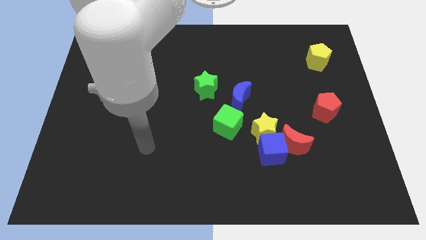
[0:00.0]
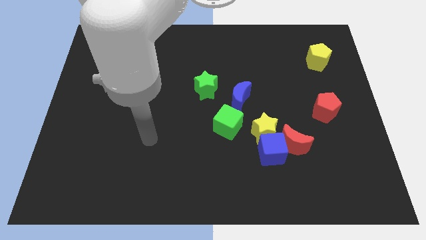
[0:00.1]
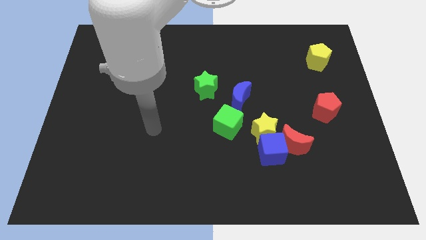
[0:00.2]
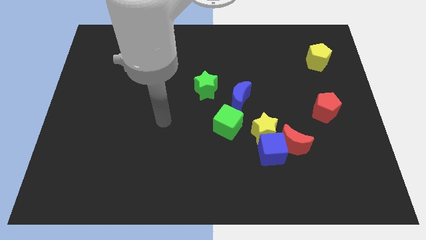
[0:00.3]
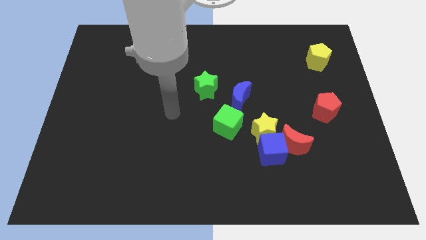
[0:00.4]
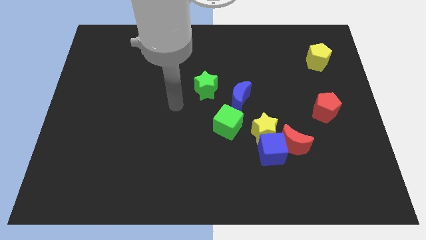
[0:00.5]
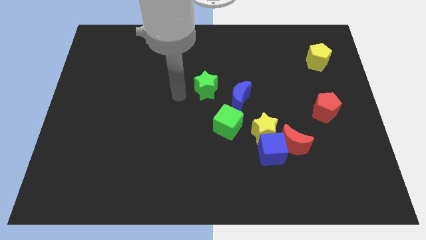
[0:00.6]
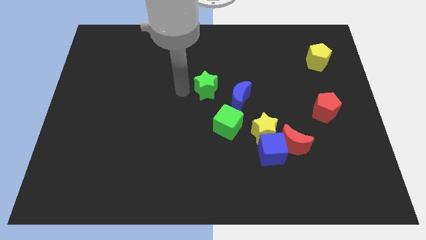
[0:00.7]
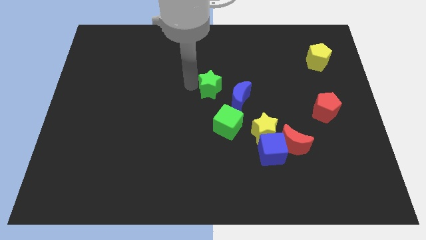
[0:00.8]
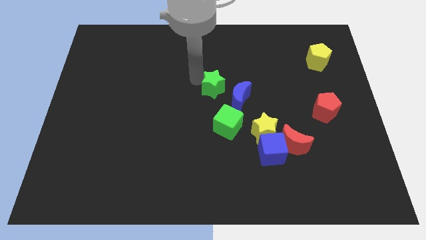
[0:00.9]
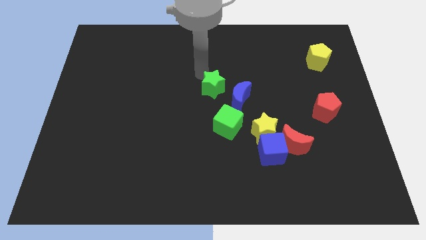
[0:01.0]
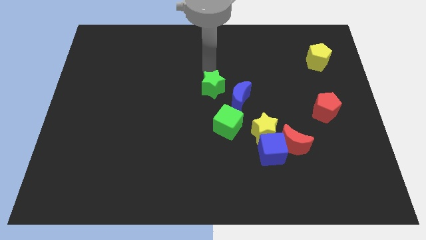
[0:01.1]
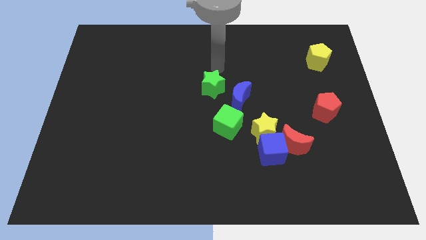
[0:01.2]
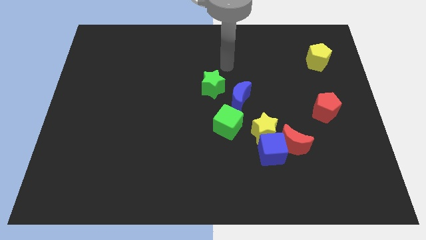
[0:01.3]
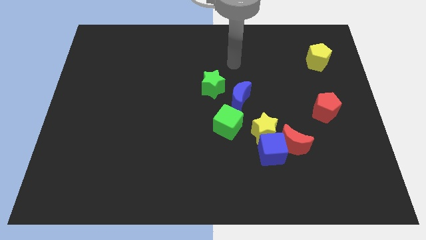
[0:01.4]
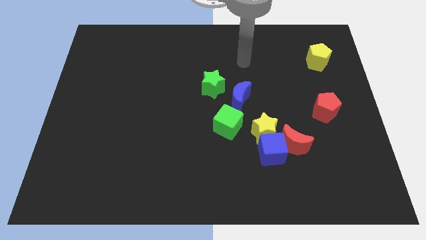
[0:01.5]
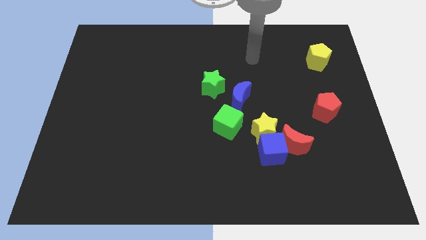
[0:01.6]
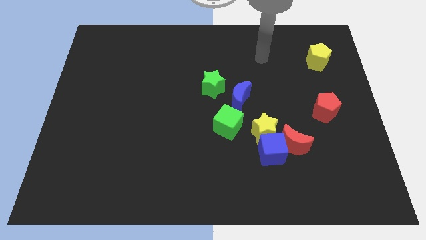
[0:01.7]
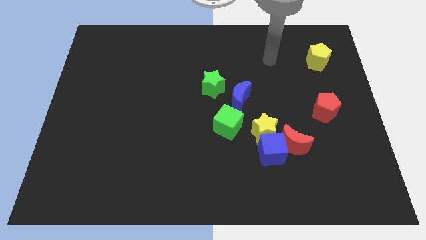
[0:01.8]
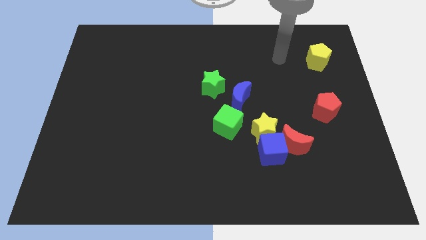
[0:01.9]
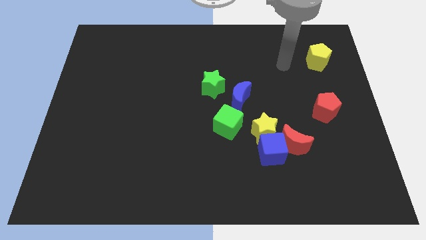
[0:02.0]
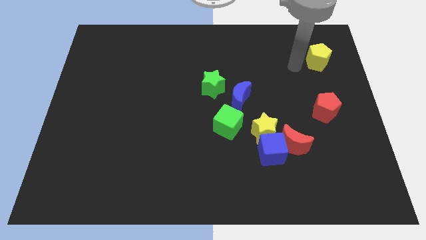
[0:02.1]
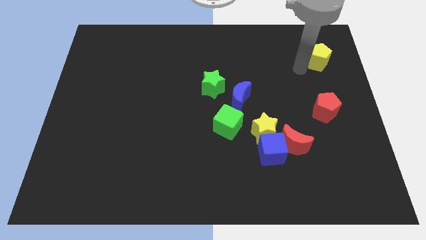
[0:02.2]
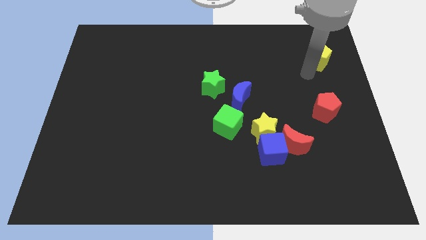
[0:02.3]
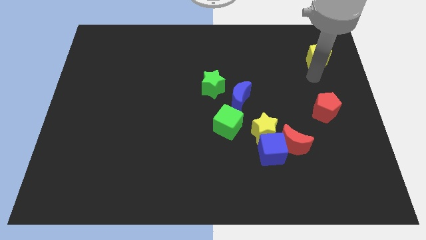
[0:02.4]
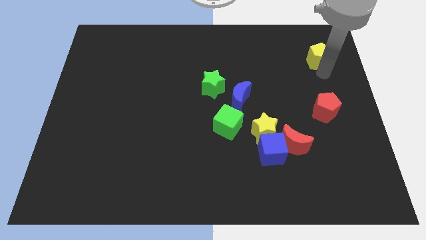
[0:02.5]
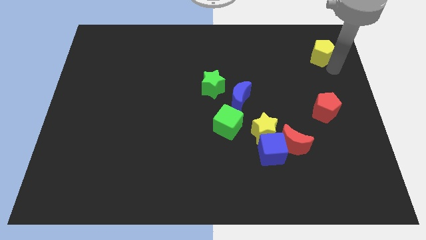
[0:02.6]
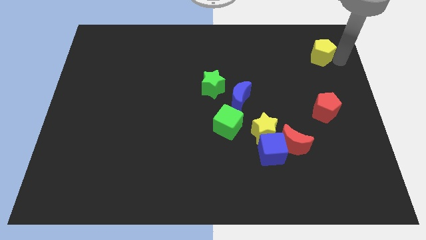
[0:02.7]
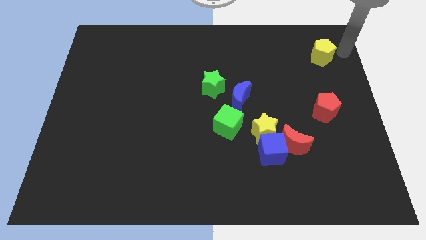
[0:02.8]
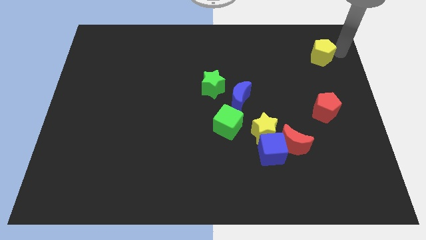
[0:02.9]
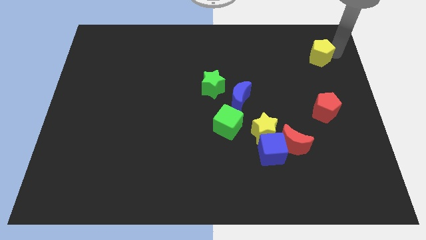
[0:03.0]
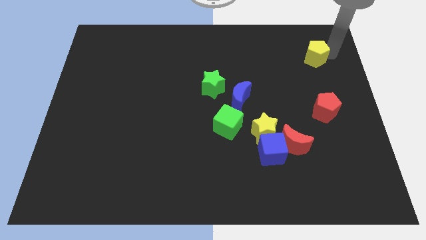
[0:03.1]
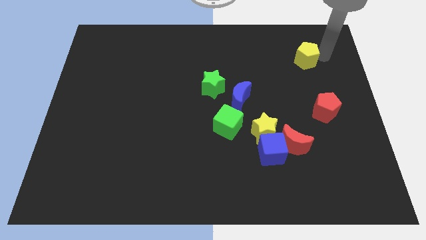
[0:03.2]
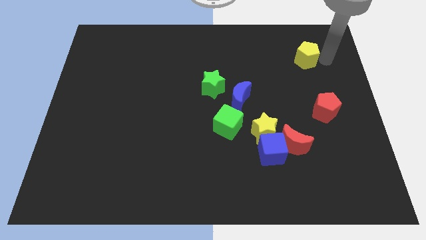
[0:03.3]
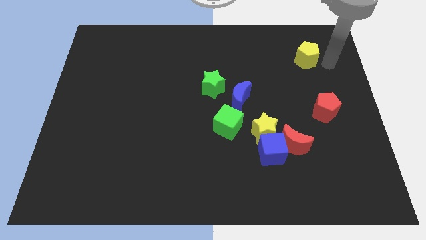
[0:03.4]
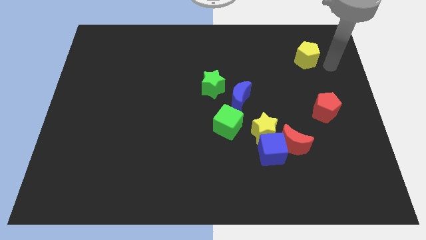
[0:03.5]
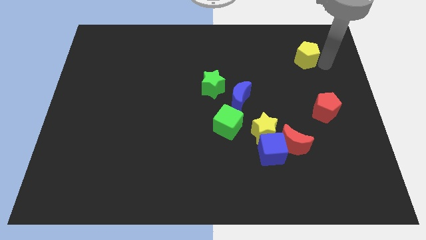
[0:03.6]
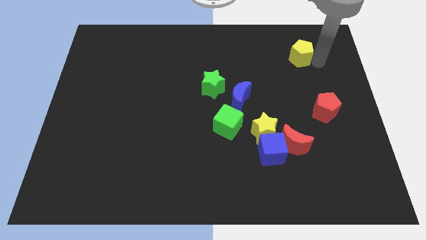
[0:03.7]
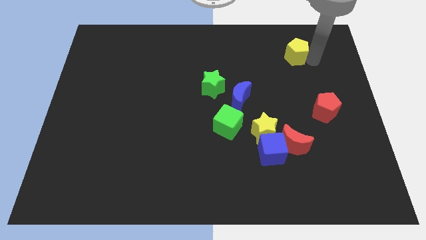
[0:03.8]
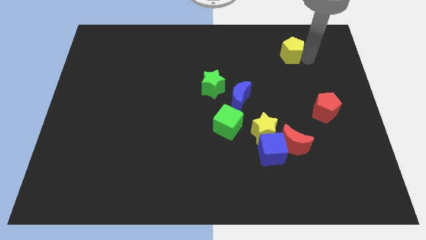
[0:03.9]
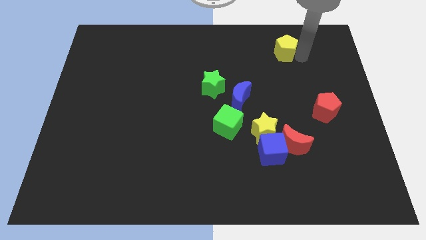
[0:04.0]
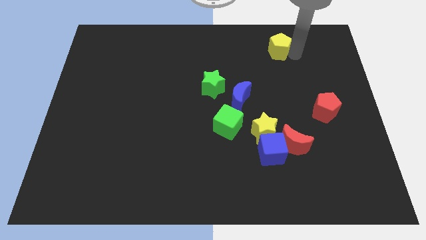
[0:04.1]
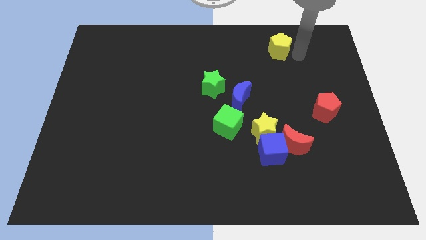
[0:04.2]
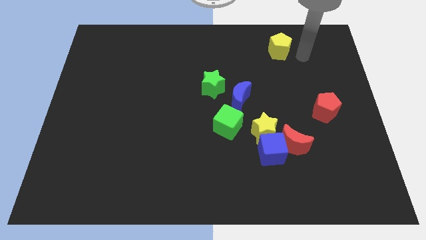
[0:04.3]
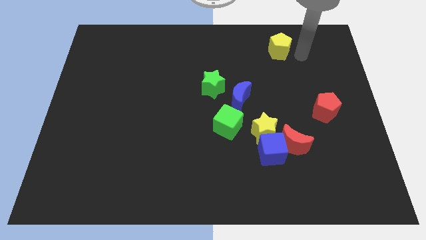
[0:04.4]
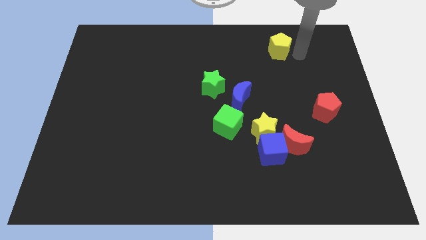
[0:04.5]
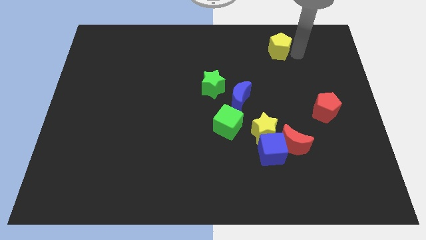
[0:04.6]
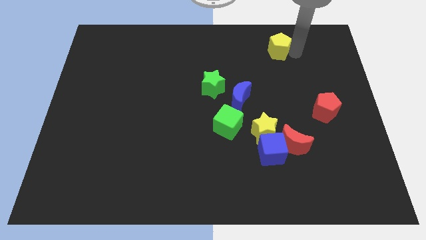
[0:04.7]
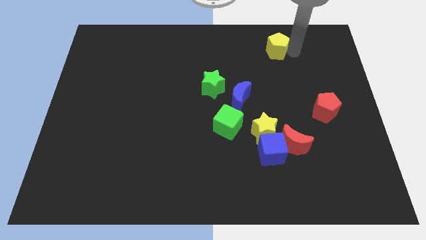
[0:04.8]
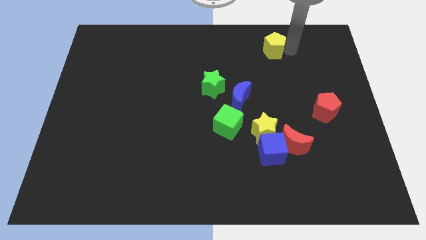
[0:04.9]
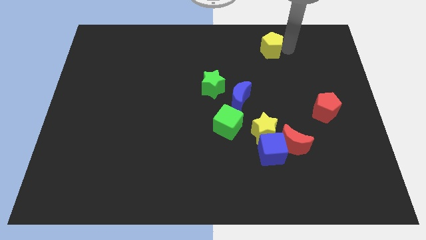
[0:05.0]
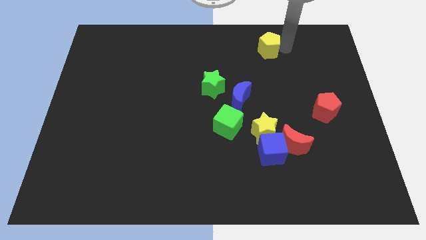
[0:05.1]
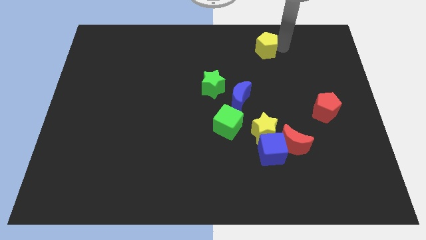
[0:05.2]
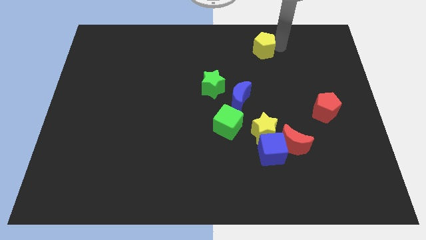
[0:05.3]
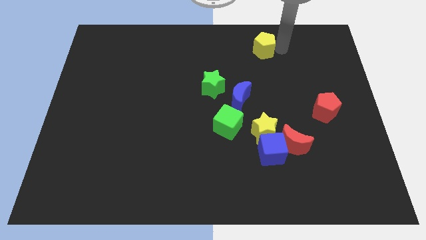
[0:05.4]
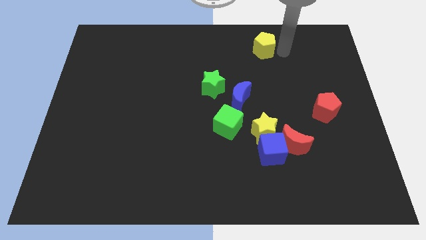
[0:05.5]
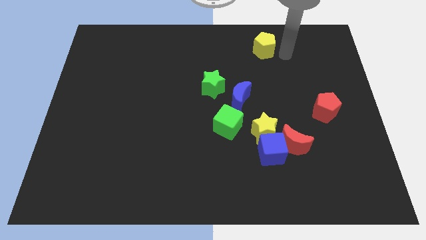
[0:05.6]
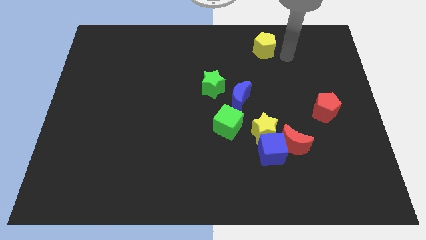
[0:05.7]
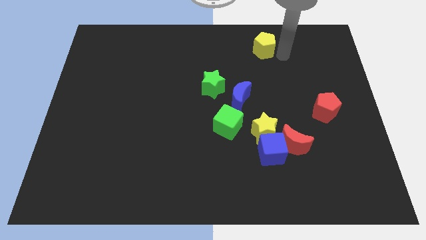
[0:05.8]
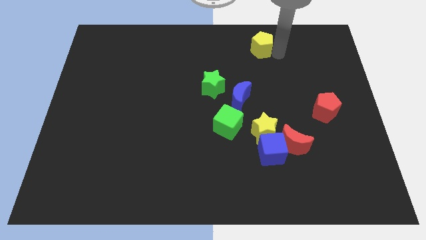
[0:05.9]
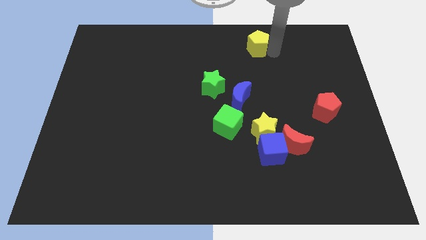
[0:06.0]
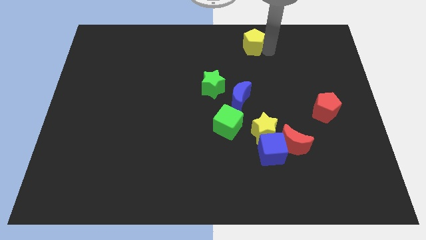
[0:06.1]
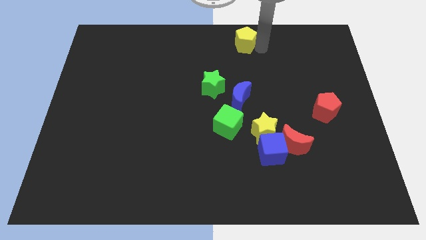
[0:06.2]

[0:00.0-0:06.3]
push the yellow pentagon to the top side
